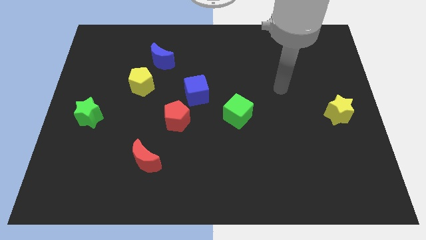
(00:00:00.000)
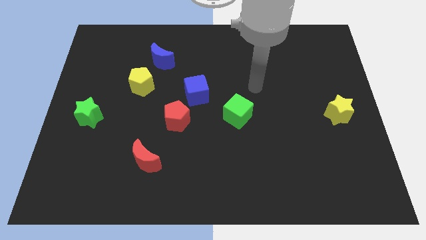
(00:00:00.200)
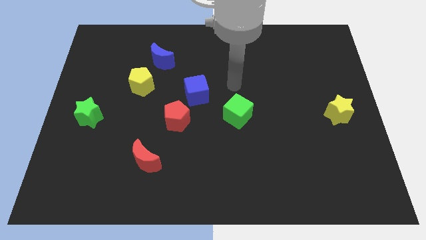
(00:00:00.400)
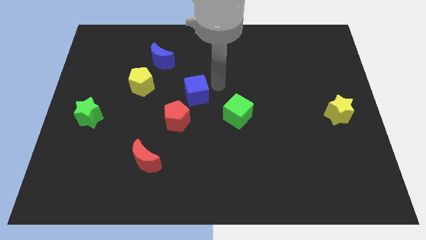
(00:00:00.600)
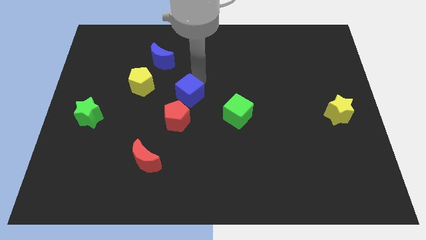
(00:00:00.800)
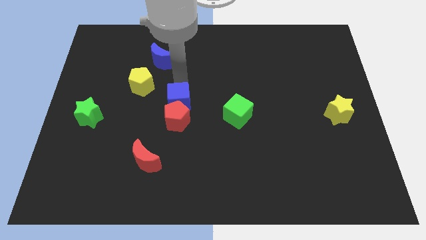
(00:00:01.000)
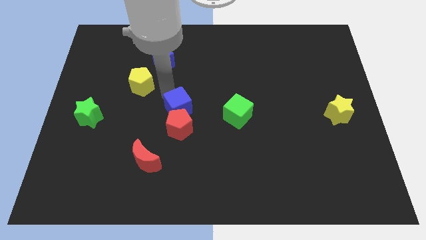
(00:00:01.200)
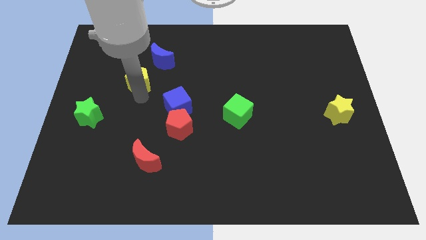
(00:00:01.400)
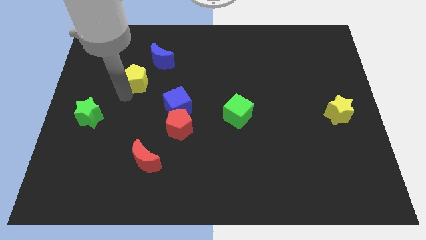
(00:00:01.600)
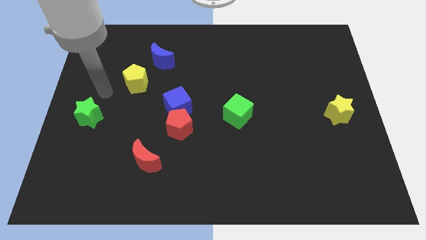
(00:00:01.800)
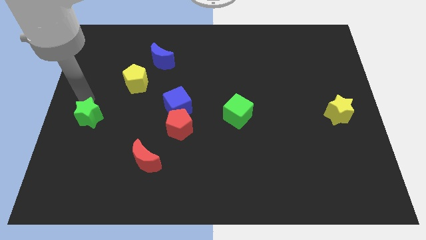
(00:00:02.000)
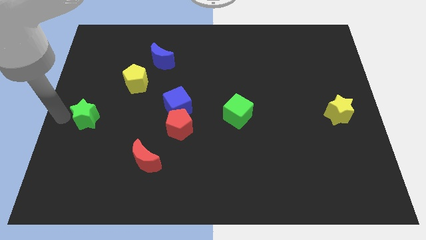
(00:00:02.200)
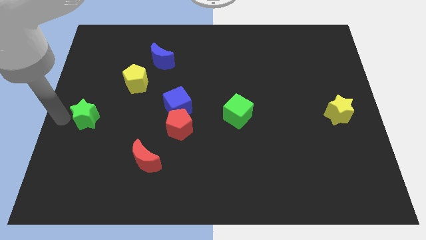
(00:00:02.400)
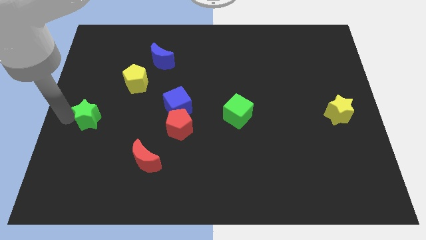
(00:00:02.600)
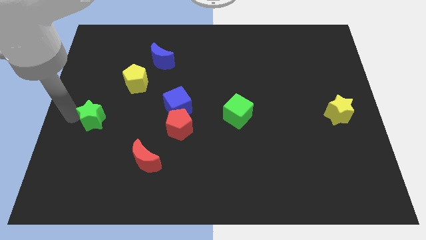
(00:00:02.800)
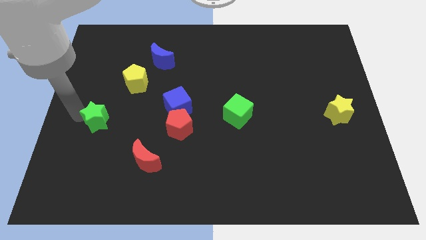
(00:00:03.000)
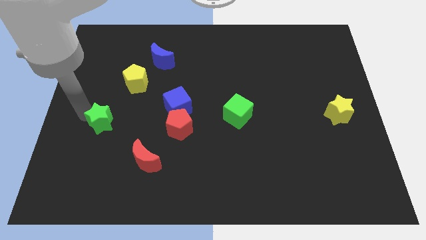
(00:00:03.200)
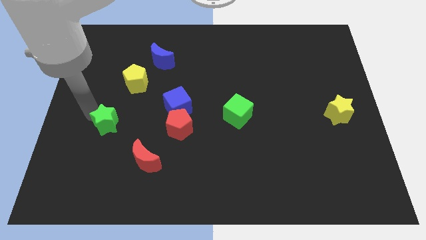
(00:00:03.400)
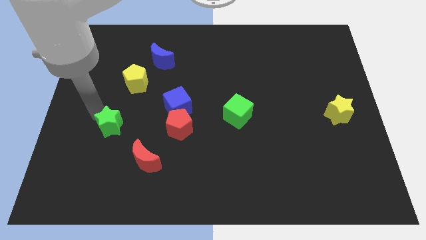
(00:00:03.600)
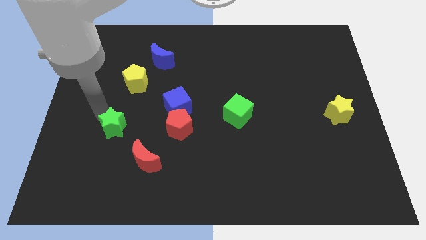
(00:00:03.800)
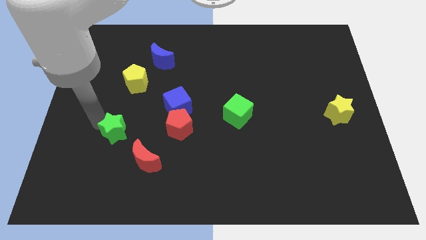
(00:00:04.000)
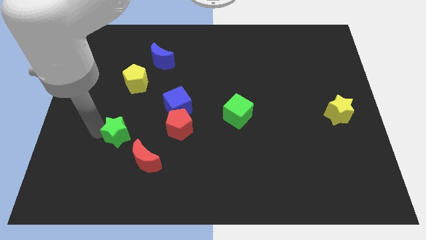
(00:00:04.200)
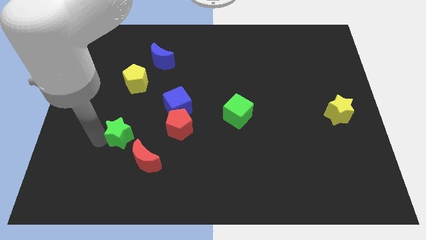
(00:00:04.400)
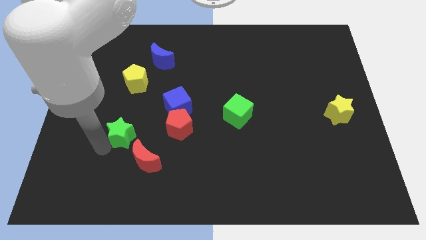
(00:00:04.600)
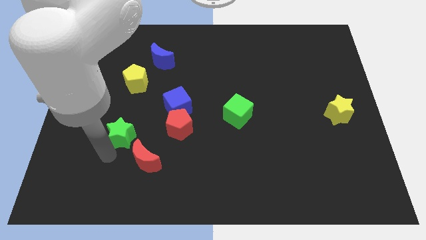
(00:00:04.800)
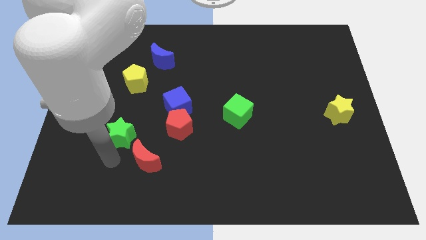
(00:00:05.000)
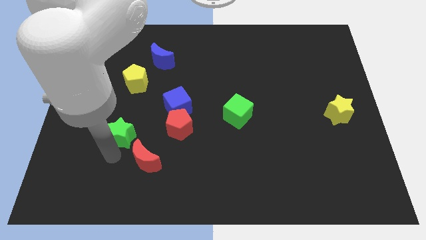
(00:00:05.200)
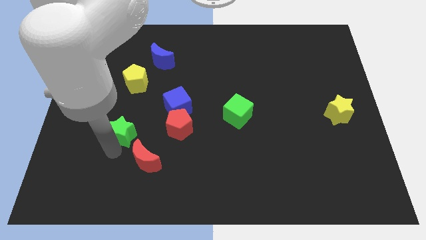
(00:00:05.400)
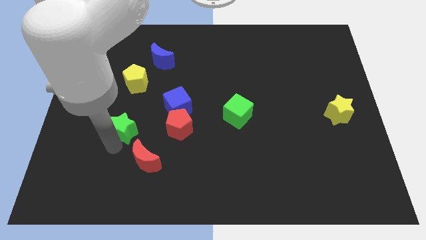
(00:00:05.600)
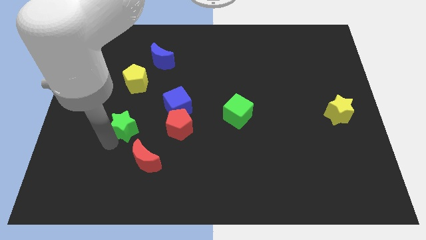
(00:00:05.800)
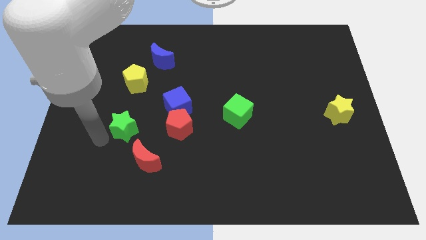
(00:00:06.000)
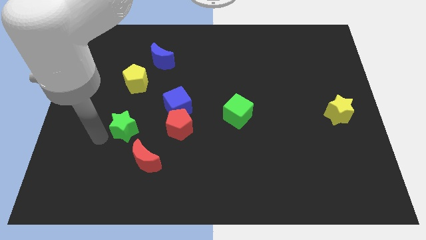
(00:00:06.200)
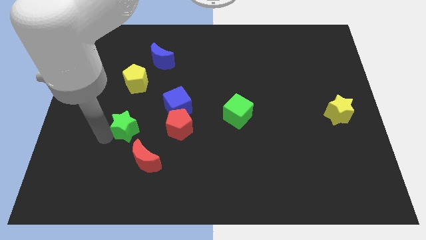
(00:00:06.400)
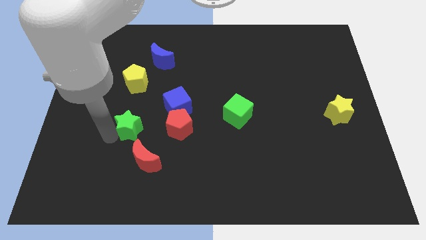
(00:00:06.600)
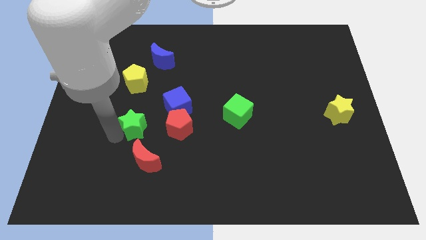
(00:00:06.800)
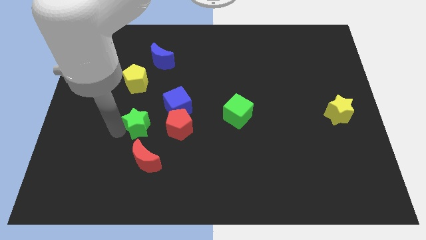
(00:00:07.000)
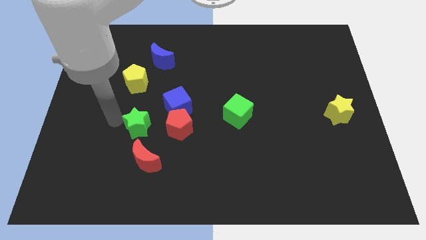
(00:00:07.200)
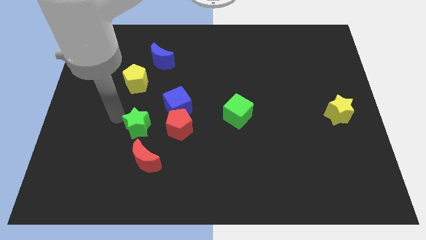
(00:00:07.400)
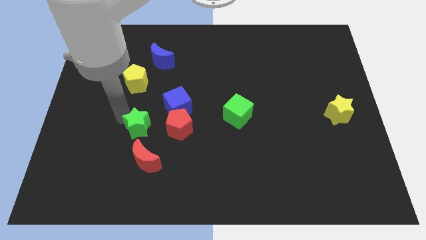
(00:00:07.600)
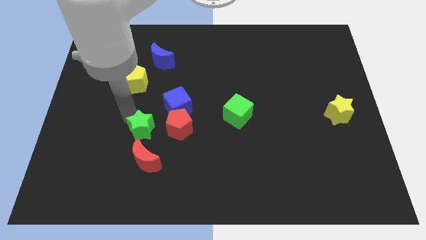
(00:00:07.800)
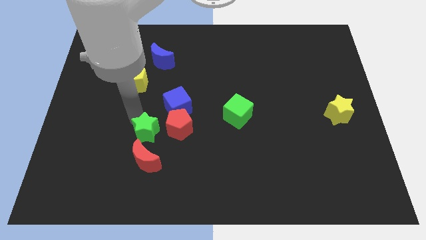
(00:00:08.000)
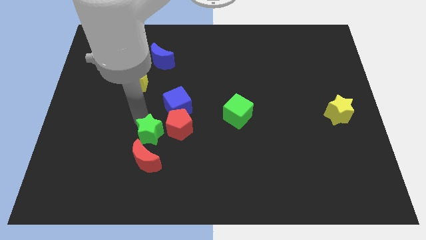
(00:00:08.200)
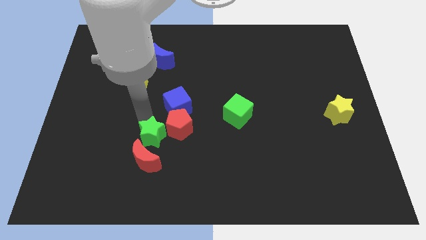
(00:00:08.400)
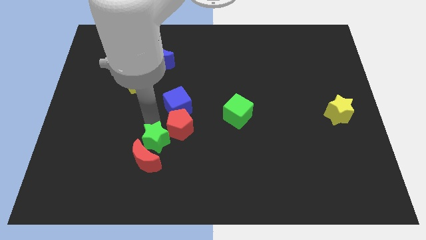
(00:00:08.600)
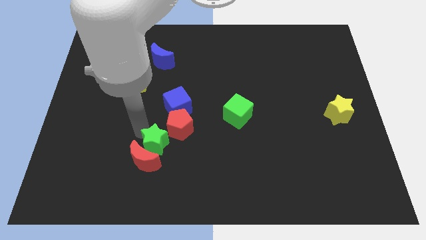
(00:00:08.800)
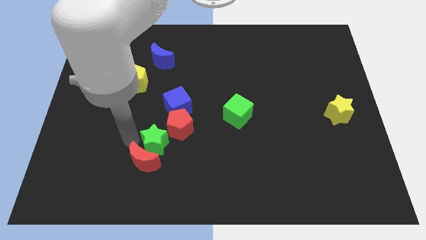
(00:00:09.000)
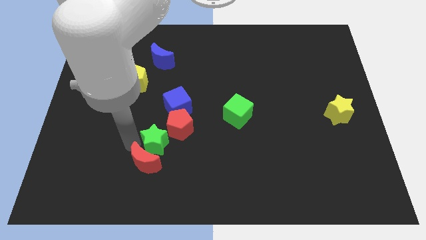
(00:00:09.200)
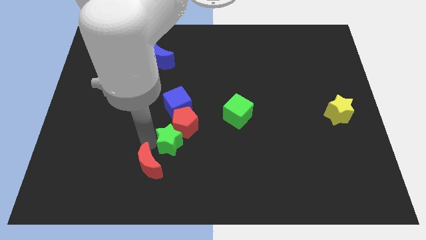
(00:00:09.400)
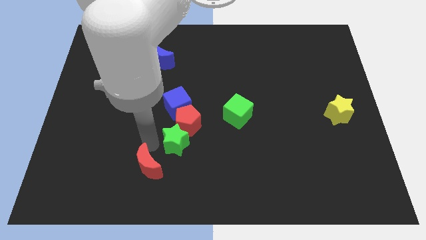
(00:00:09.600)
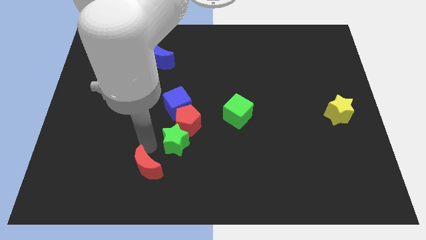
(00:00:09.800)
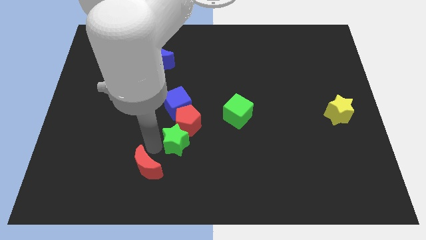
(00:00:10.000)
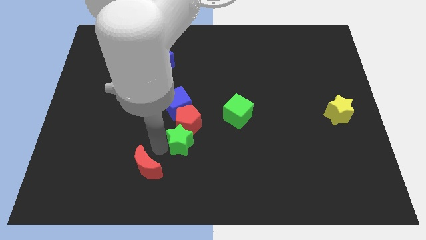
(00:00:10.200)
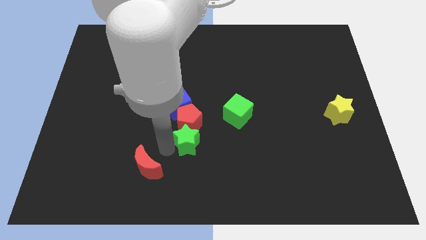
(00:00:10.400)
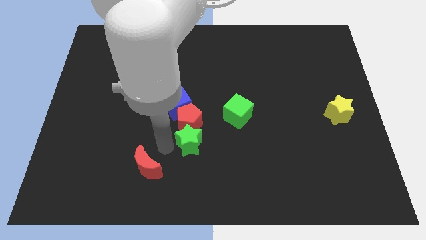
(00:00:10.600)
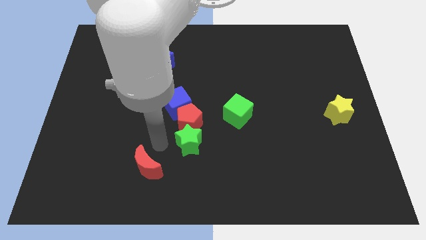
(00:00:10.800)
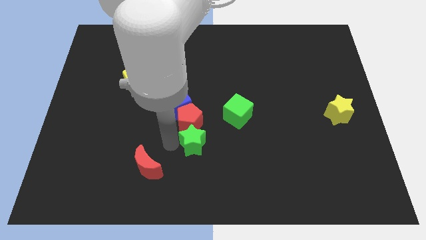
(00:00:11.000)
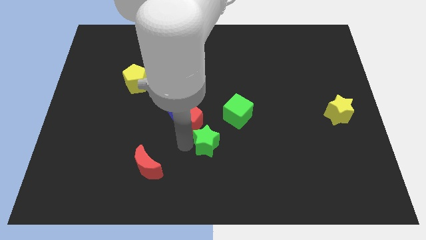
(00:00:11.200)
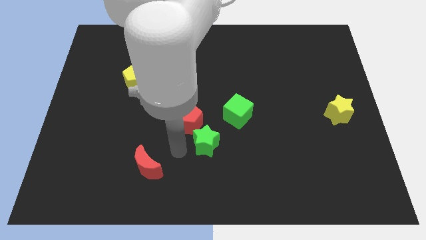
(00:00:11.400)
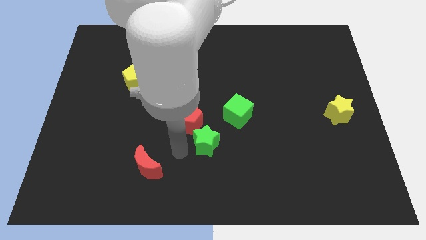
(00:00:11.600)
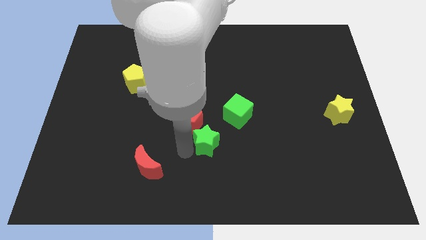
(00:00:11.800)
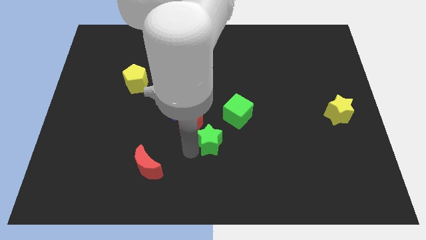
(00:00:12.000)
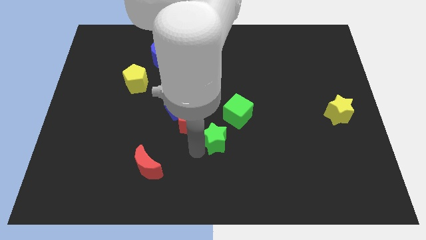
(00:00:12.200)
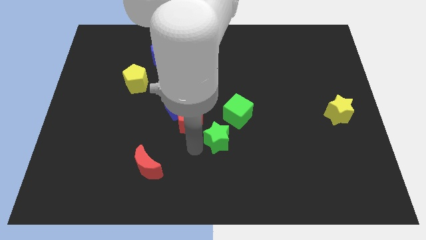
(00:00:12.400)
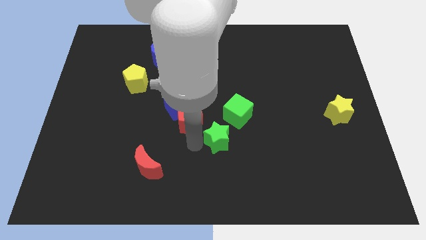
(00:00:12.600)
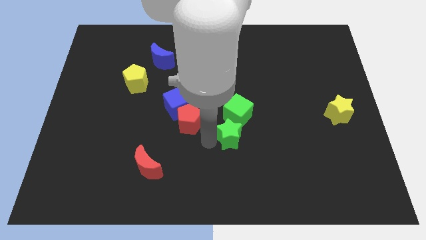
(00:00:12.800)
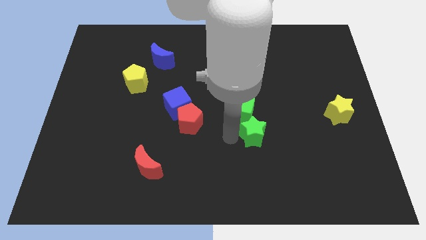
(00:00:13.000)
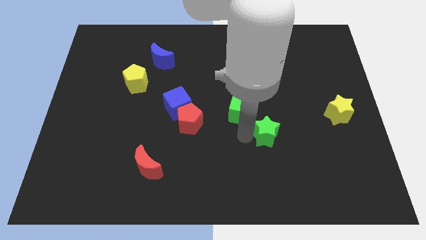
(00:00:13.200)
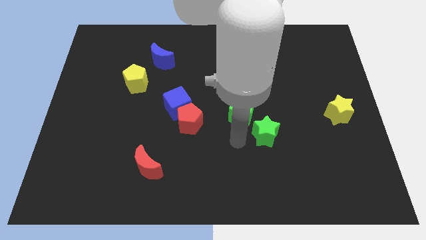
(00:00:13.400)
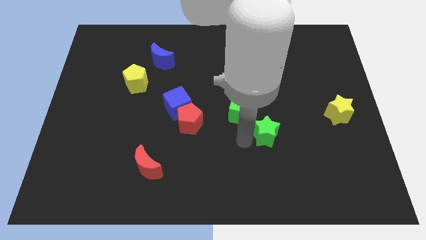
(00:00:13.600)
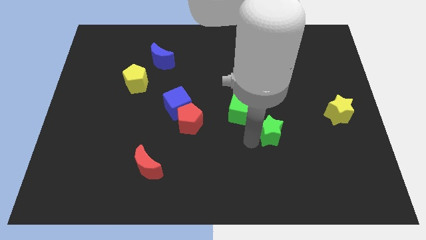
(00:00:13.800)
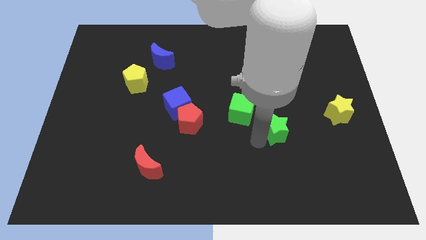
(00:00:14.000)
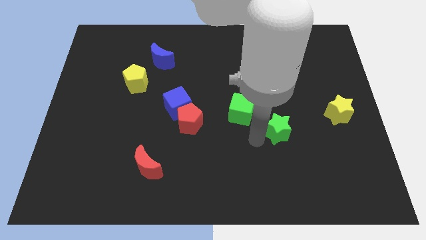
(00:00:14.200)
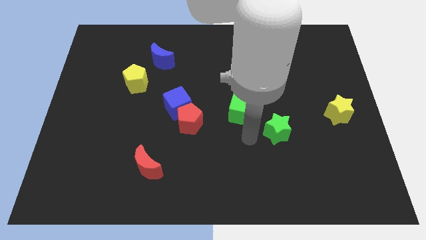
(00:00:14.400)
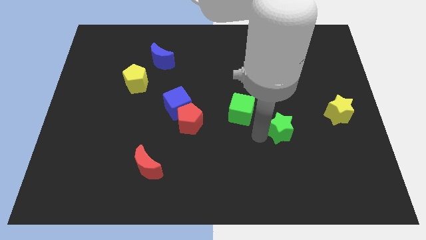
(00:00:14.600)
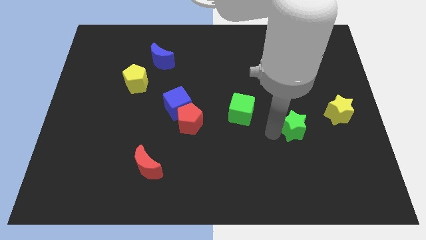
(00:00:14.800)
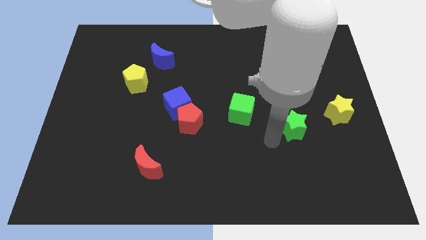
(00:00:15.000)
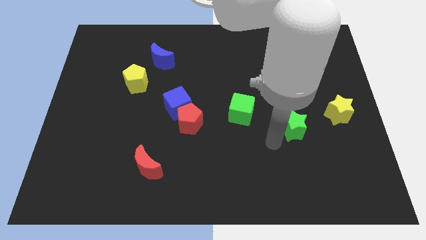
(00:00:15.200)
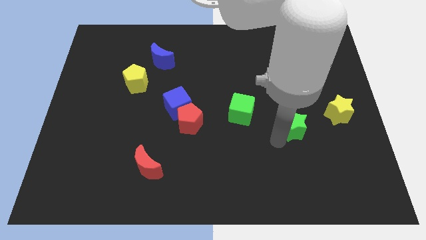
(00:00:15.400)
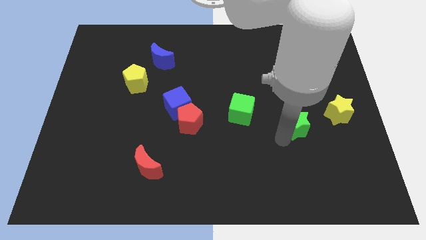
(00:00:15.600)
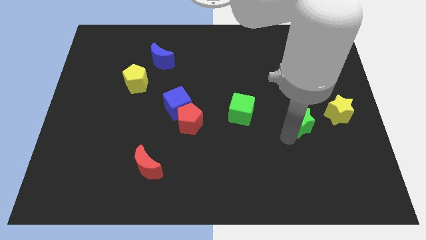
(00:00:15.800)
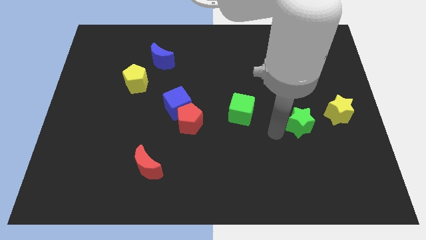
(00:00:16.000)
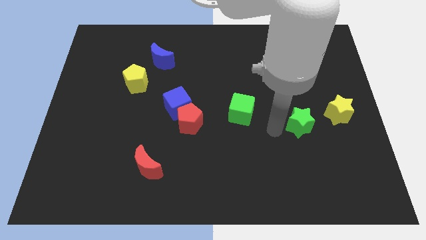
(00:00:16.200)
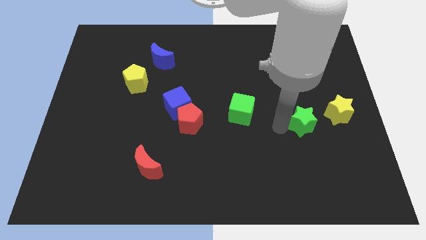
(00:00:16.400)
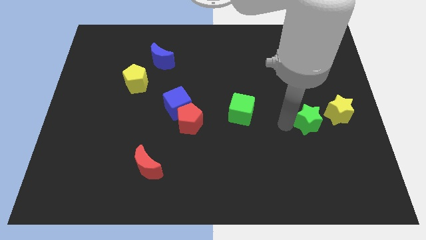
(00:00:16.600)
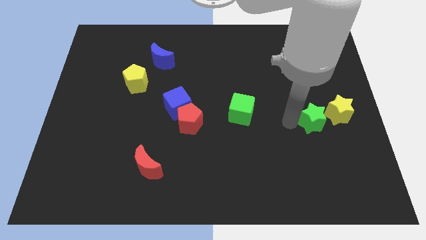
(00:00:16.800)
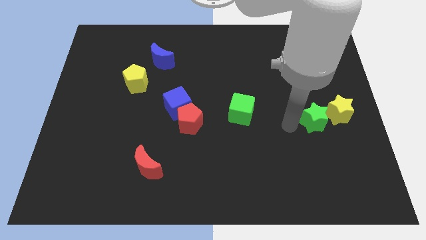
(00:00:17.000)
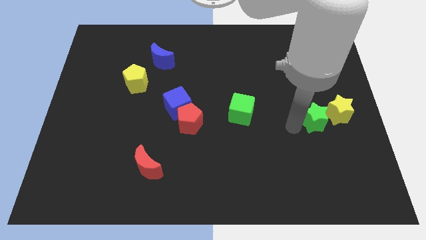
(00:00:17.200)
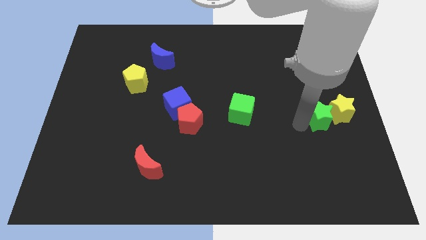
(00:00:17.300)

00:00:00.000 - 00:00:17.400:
move the green star next to the yellow star
